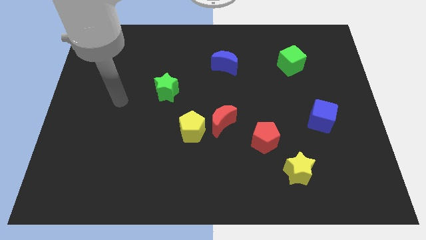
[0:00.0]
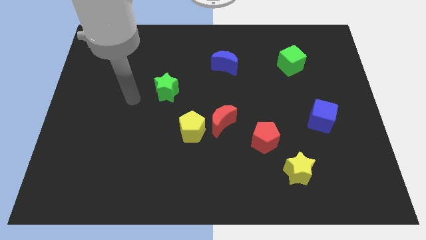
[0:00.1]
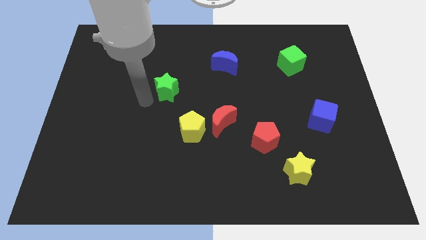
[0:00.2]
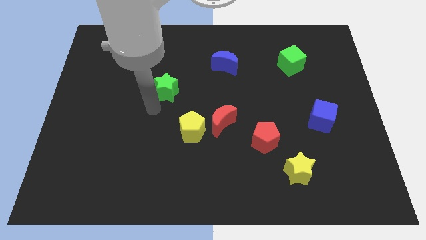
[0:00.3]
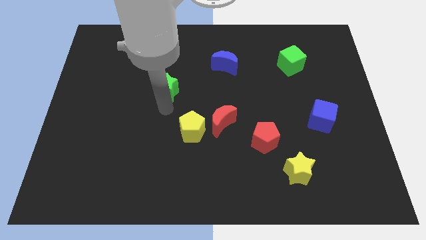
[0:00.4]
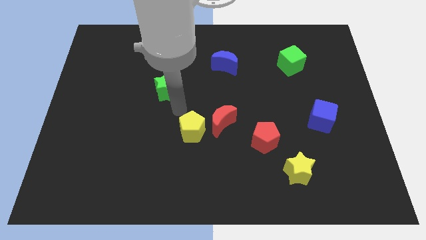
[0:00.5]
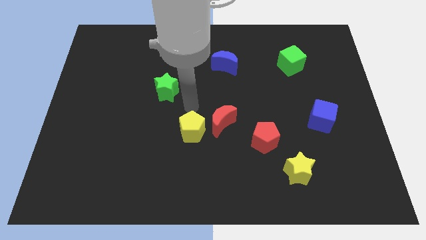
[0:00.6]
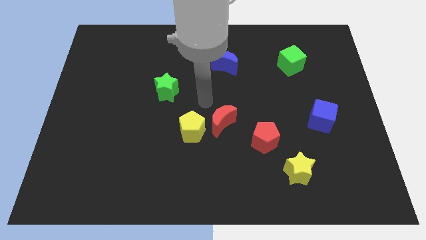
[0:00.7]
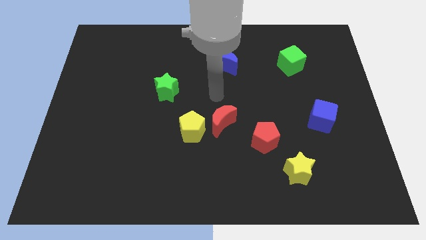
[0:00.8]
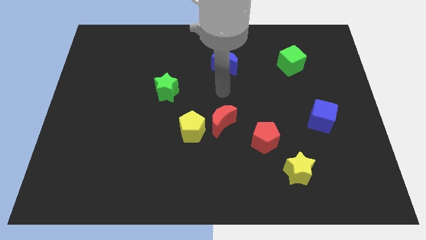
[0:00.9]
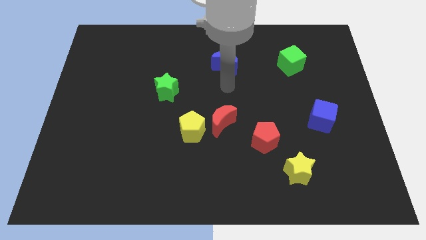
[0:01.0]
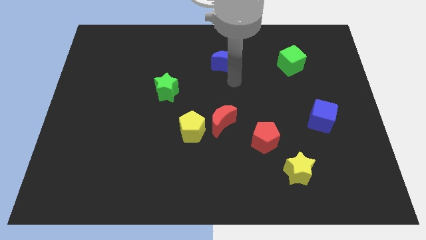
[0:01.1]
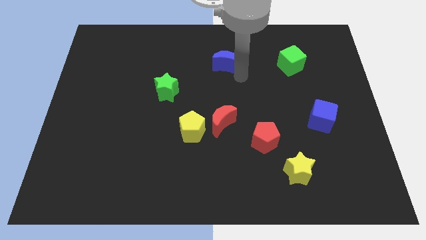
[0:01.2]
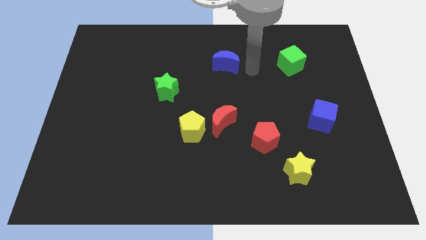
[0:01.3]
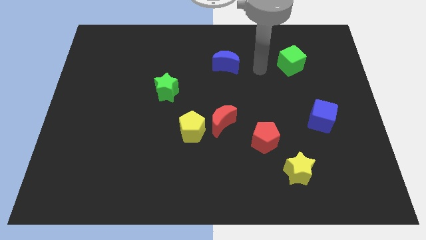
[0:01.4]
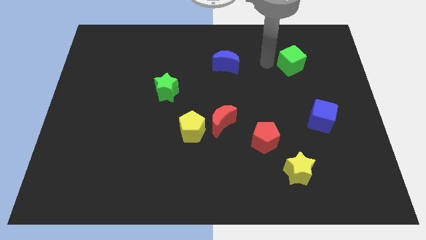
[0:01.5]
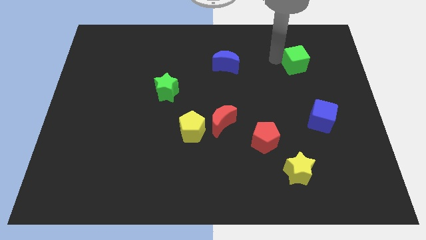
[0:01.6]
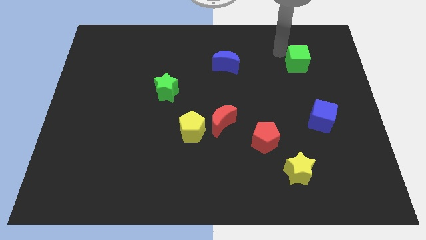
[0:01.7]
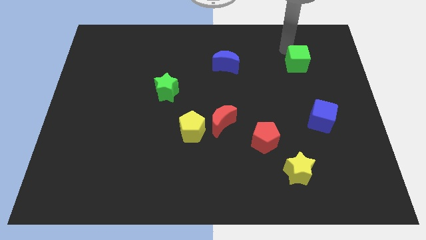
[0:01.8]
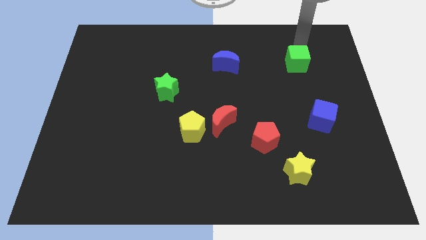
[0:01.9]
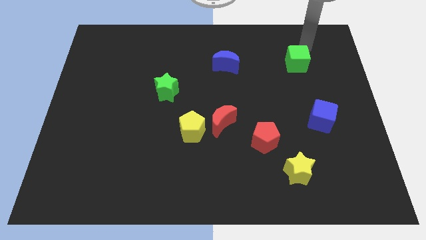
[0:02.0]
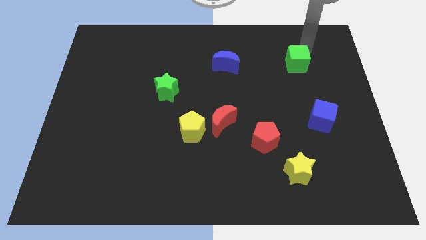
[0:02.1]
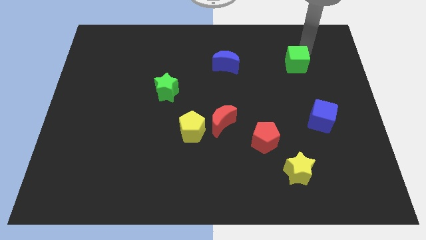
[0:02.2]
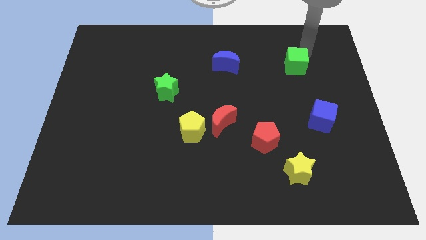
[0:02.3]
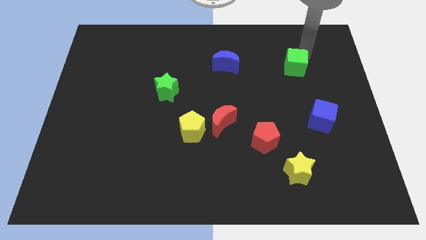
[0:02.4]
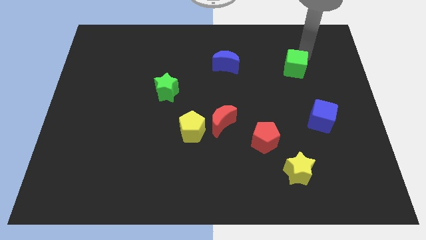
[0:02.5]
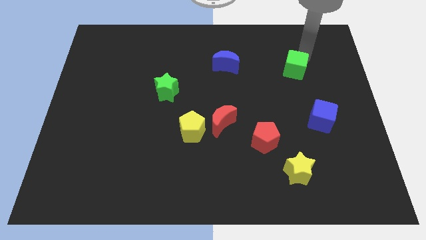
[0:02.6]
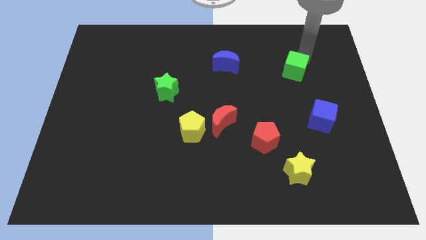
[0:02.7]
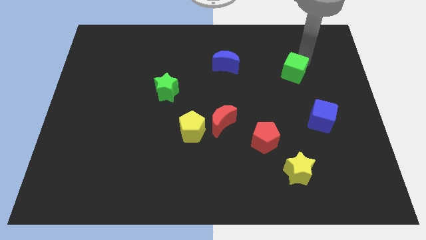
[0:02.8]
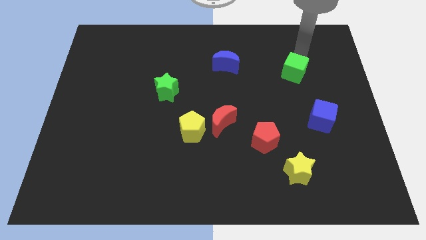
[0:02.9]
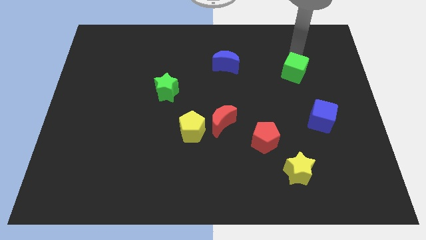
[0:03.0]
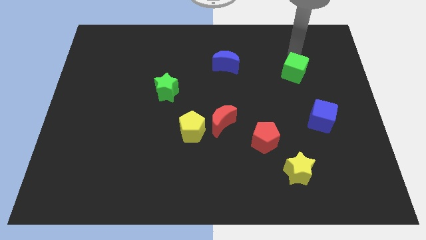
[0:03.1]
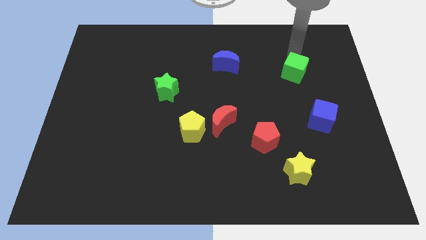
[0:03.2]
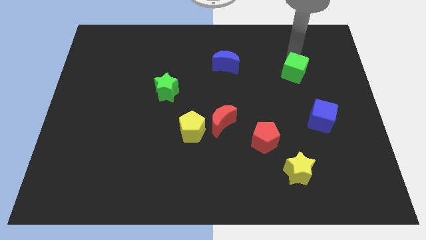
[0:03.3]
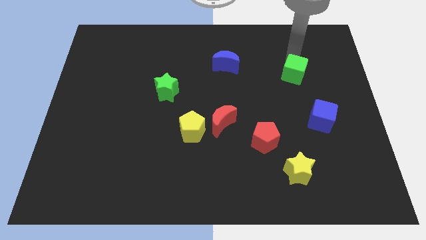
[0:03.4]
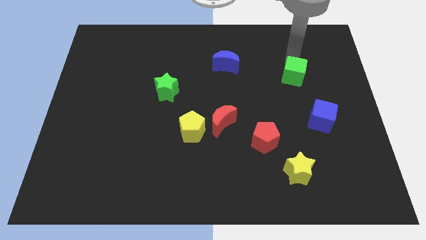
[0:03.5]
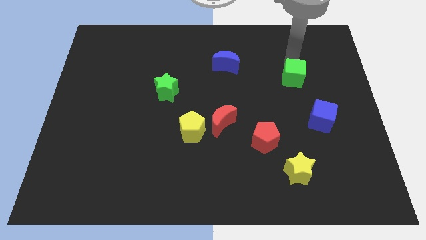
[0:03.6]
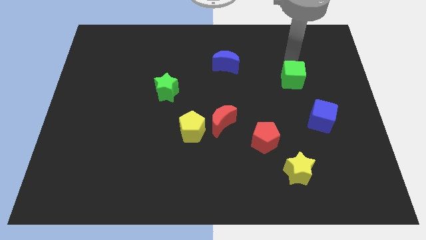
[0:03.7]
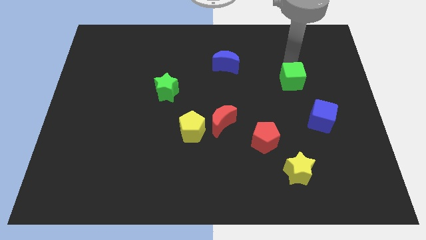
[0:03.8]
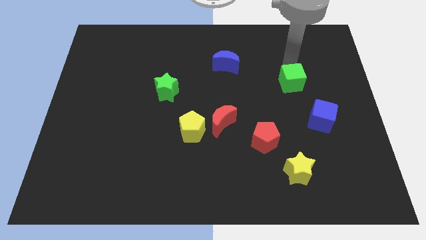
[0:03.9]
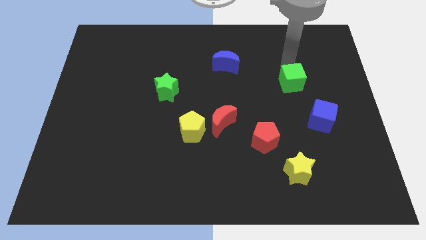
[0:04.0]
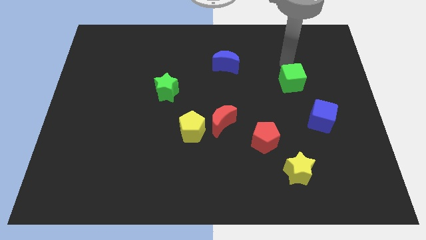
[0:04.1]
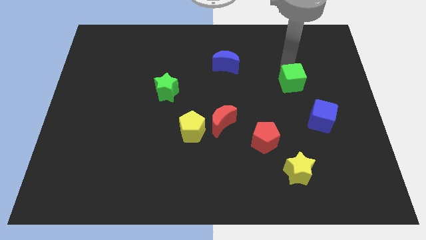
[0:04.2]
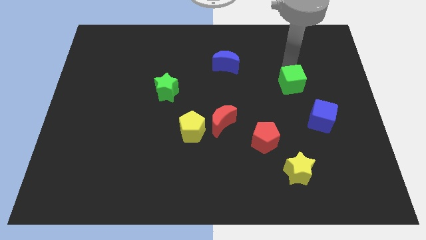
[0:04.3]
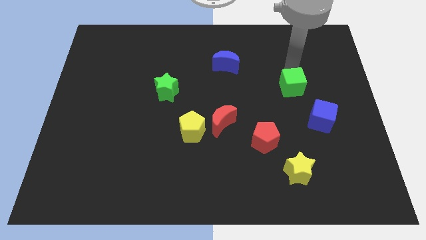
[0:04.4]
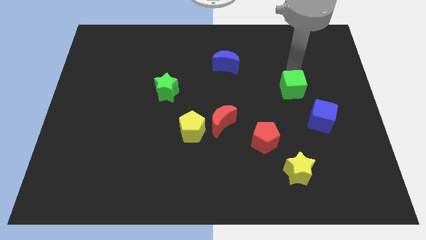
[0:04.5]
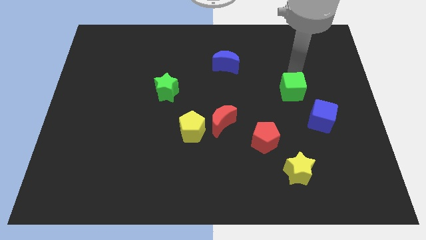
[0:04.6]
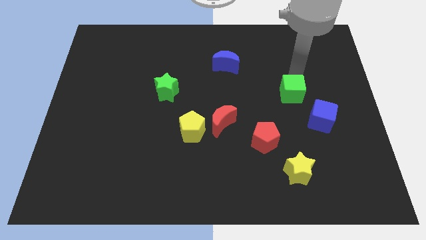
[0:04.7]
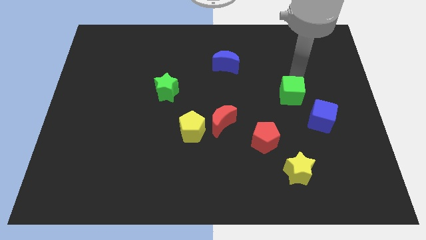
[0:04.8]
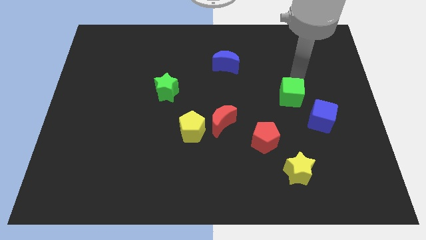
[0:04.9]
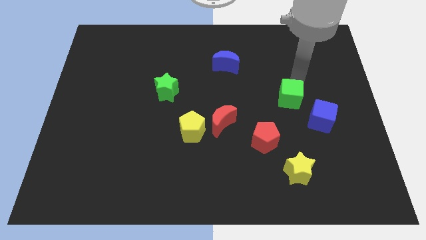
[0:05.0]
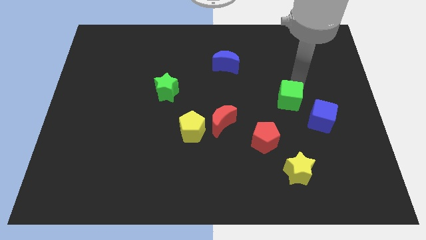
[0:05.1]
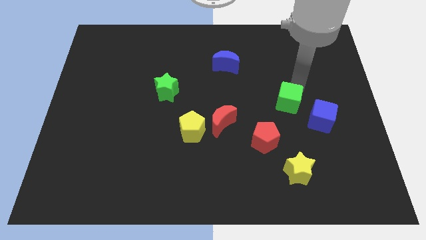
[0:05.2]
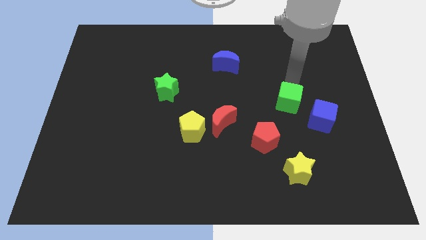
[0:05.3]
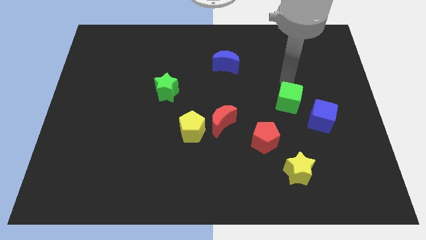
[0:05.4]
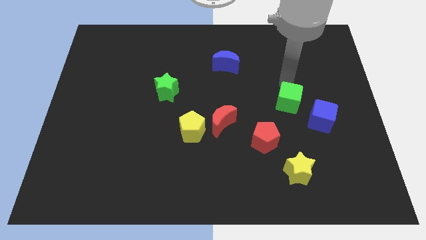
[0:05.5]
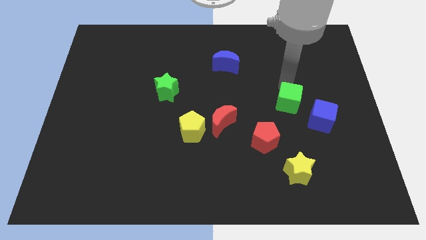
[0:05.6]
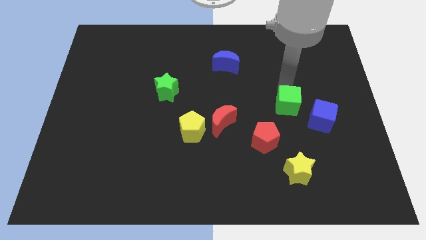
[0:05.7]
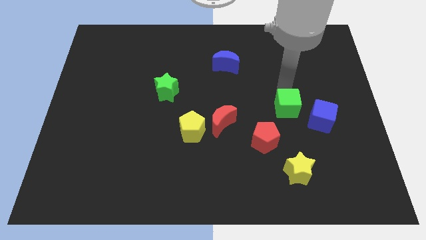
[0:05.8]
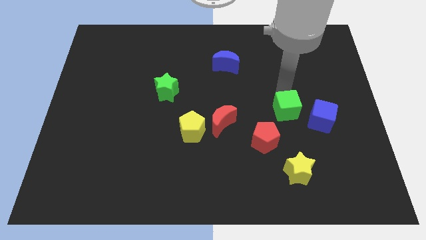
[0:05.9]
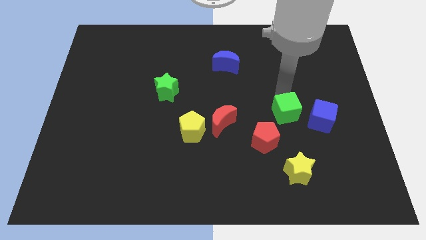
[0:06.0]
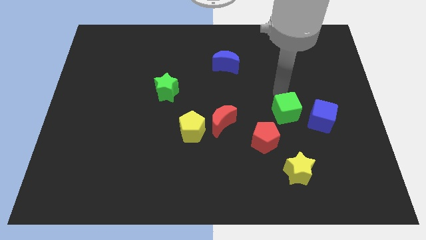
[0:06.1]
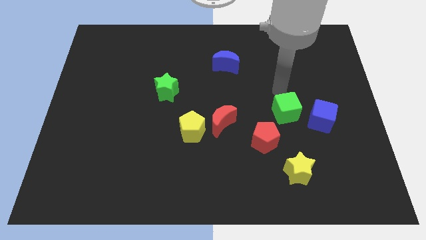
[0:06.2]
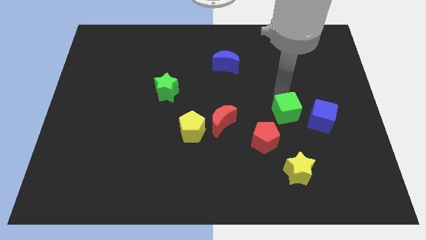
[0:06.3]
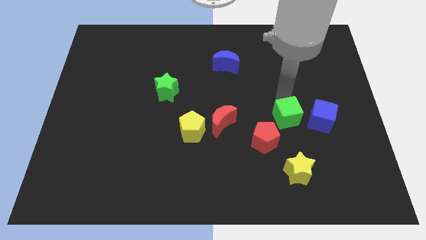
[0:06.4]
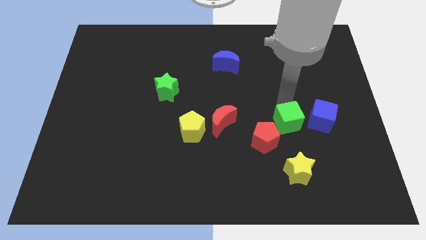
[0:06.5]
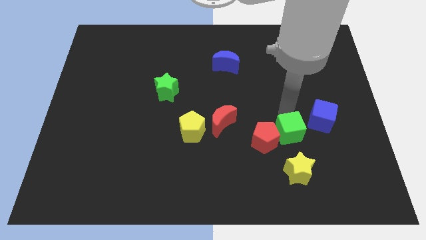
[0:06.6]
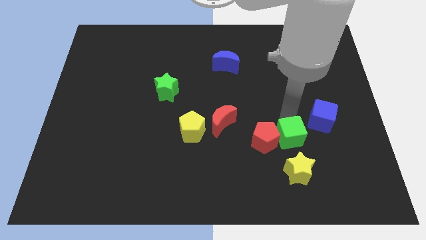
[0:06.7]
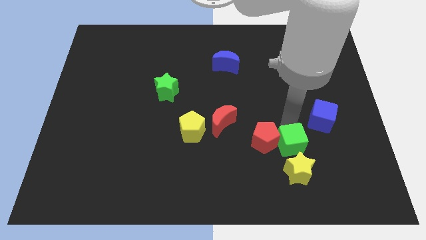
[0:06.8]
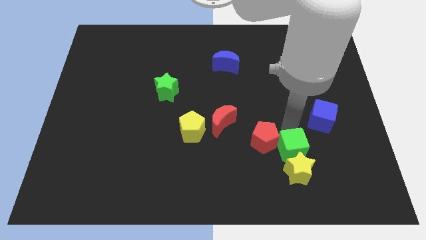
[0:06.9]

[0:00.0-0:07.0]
move the green cube towards the yellow star
